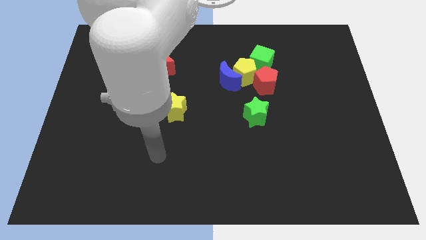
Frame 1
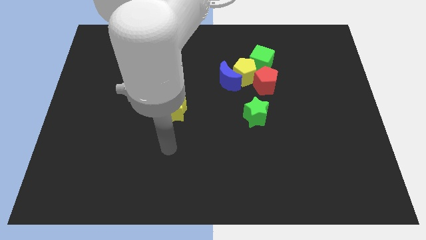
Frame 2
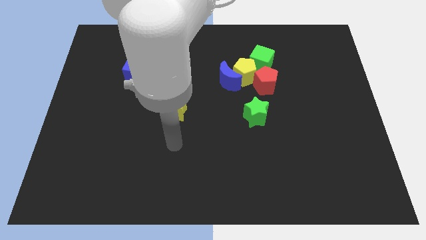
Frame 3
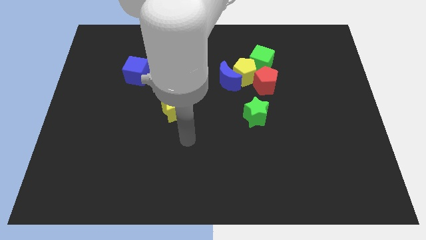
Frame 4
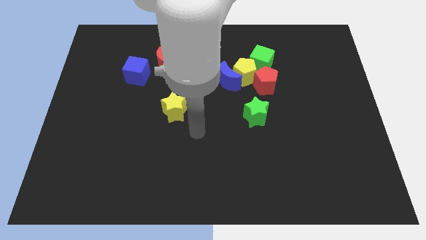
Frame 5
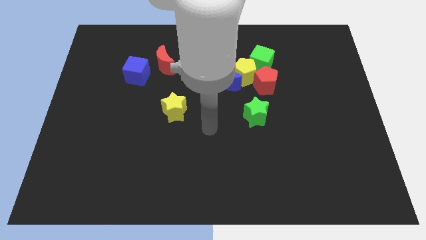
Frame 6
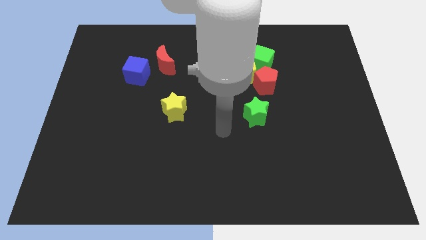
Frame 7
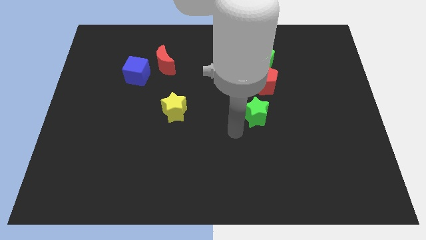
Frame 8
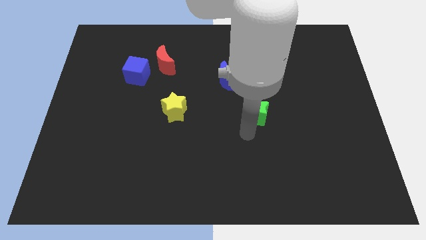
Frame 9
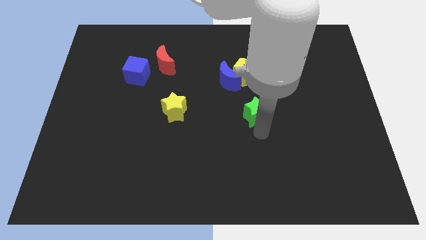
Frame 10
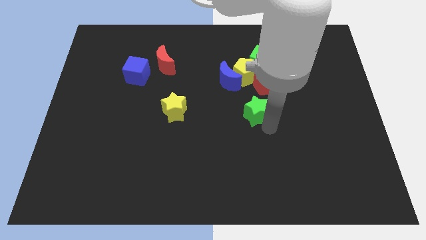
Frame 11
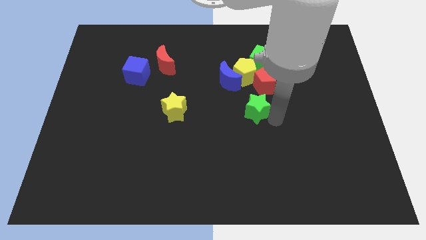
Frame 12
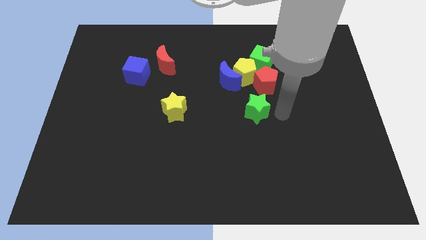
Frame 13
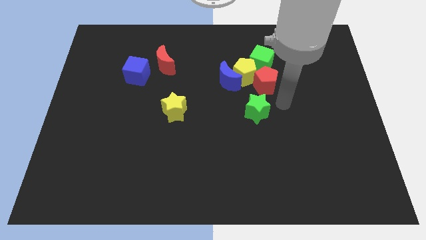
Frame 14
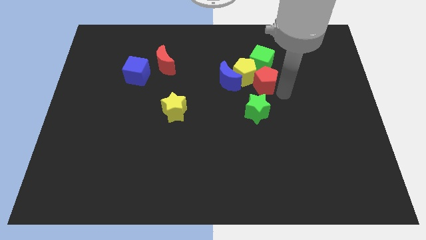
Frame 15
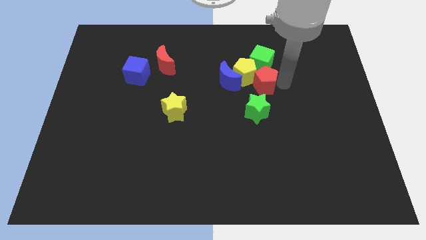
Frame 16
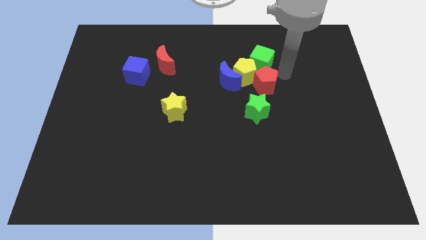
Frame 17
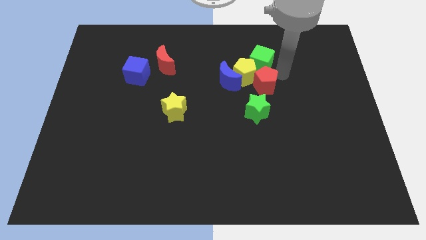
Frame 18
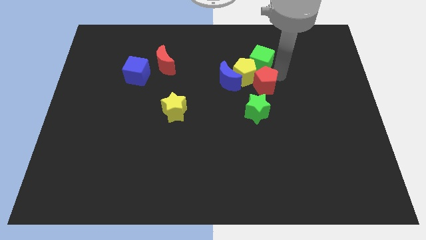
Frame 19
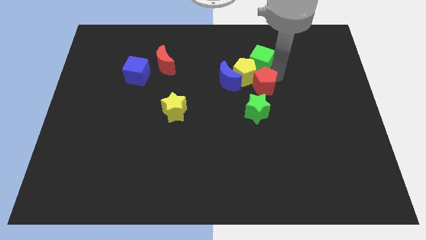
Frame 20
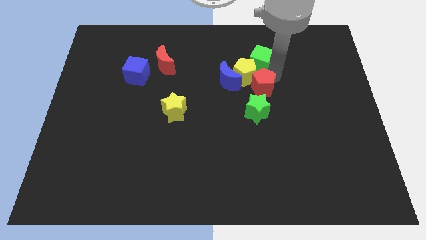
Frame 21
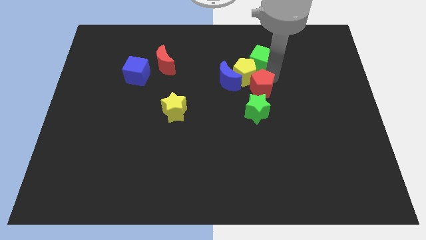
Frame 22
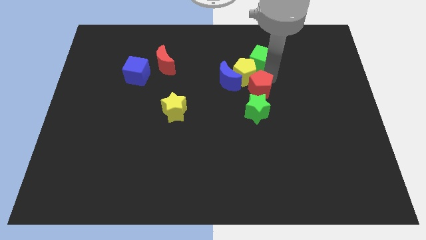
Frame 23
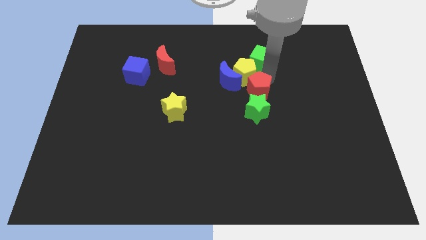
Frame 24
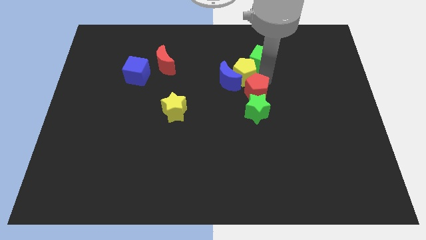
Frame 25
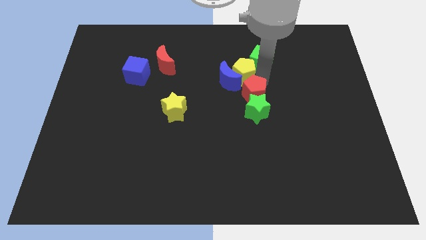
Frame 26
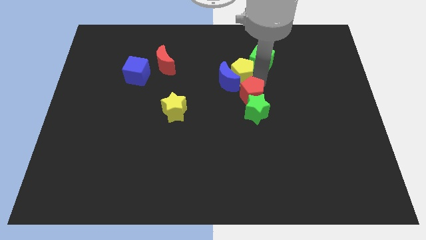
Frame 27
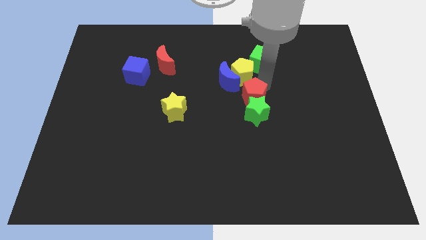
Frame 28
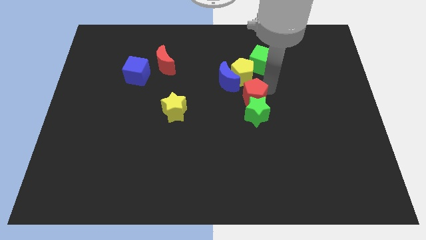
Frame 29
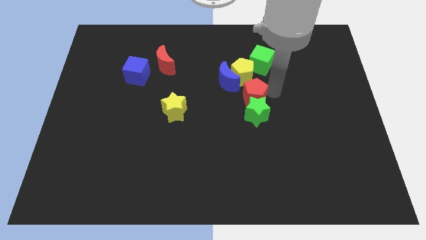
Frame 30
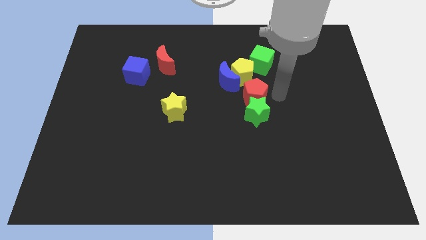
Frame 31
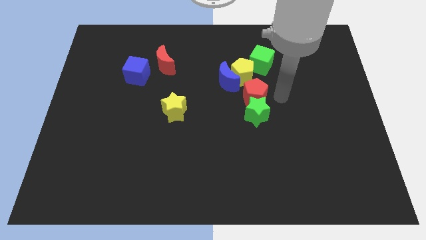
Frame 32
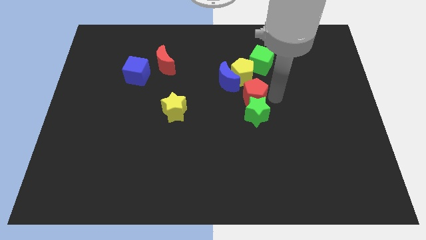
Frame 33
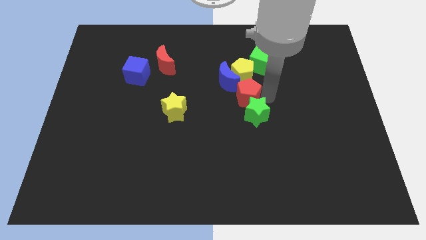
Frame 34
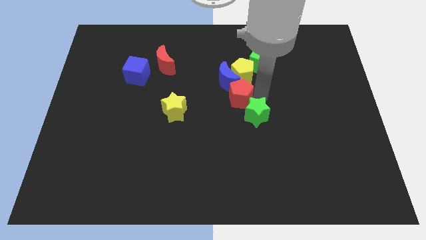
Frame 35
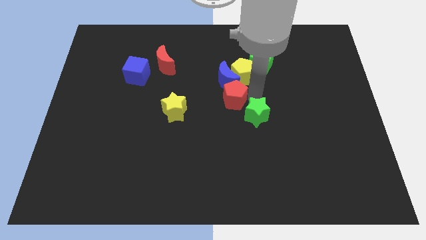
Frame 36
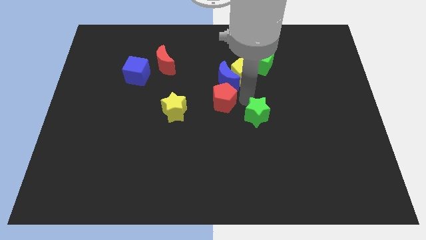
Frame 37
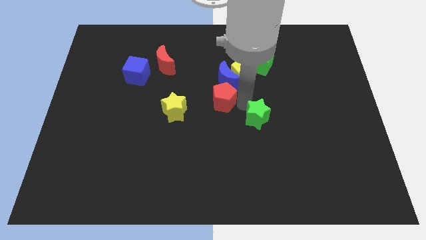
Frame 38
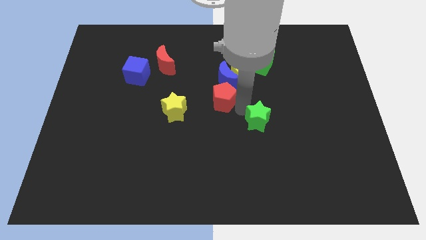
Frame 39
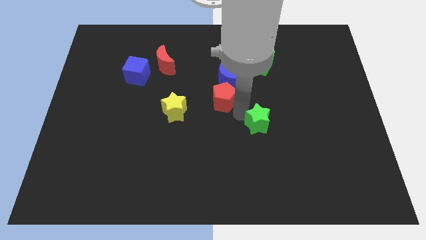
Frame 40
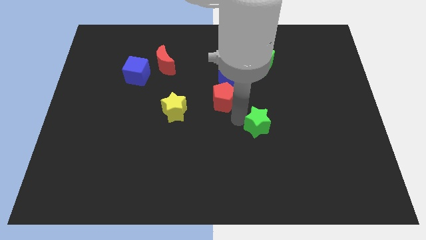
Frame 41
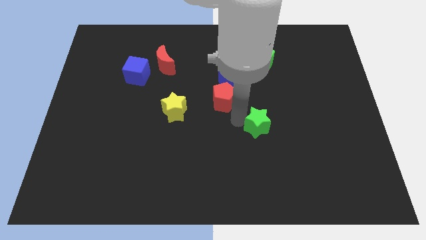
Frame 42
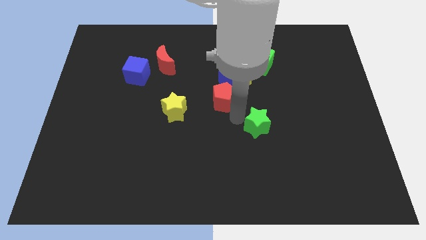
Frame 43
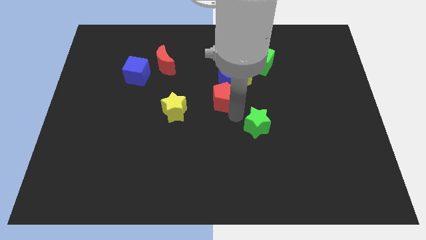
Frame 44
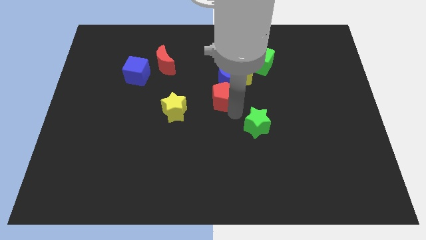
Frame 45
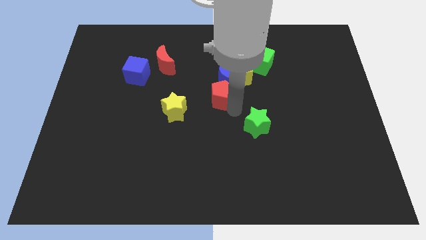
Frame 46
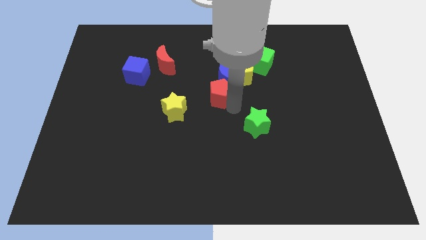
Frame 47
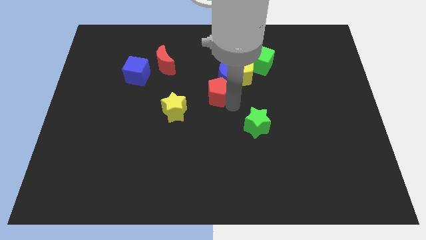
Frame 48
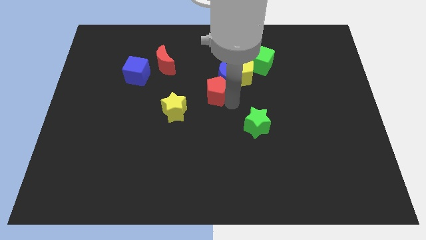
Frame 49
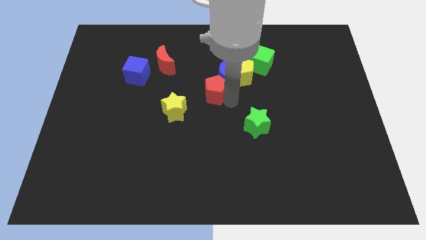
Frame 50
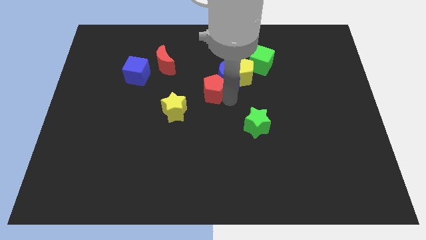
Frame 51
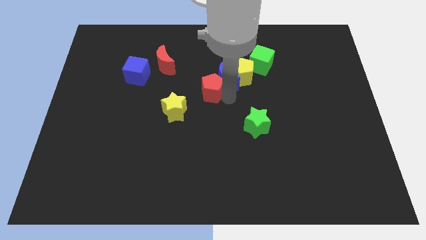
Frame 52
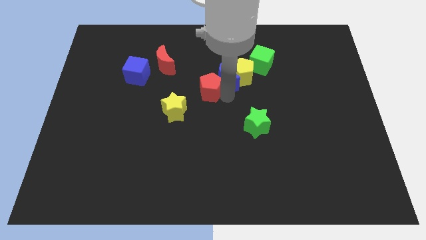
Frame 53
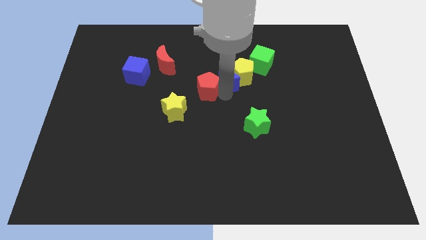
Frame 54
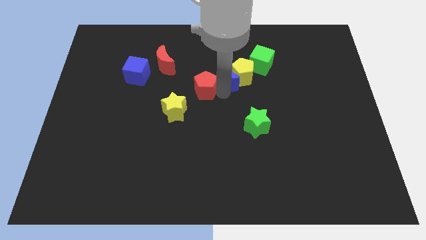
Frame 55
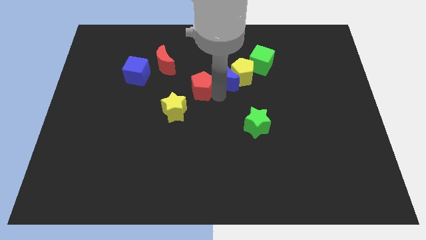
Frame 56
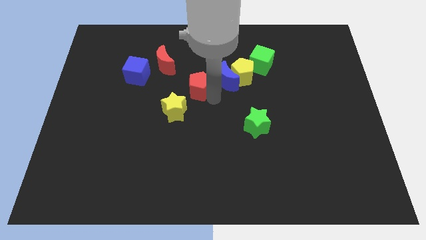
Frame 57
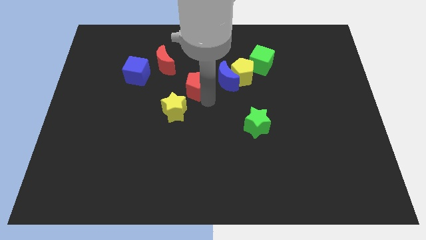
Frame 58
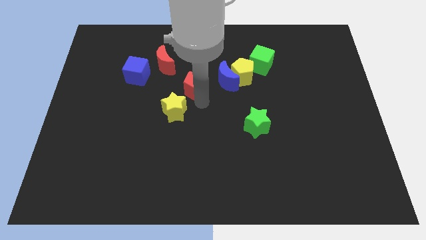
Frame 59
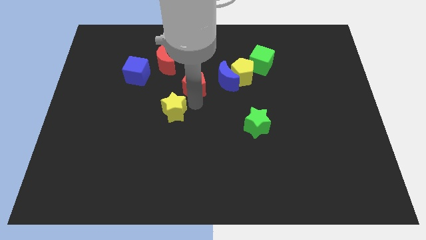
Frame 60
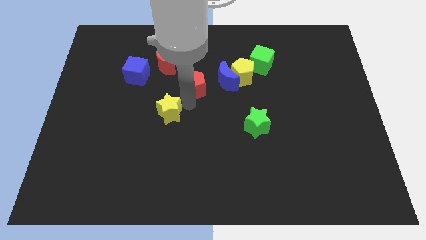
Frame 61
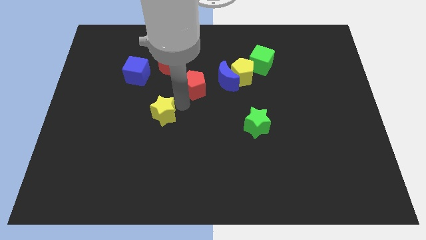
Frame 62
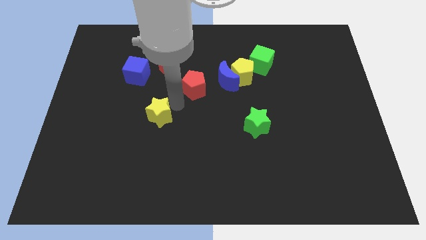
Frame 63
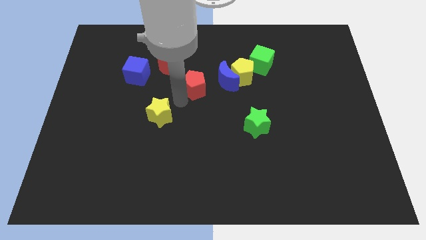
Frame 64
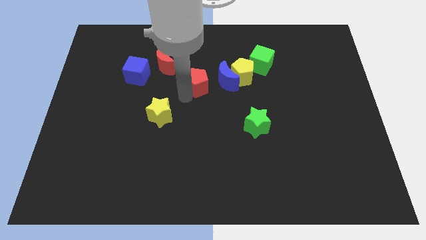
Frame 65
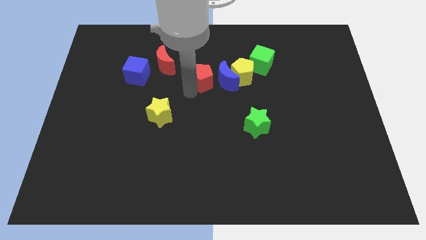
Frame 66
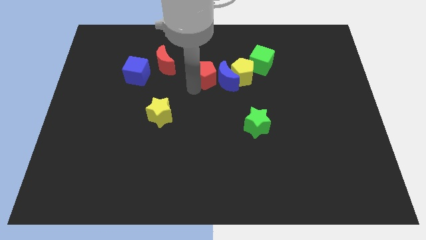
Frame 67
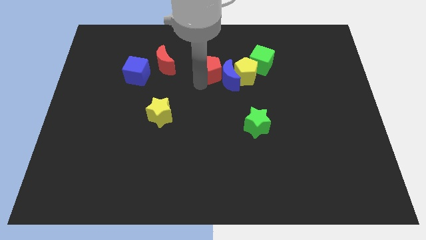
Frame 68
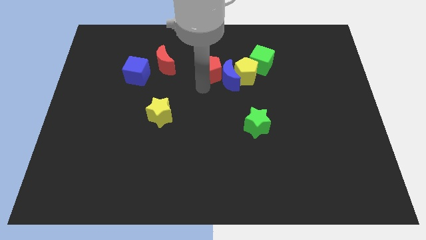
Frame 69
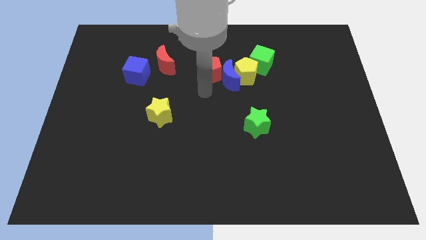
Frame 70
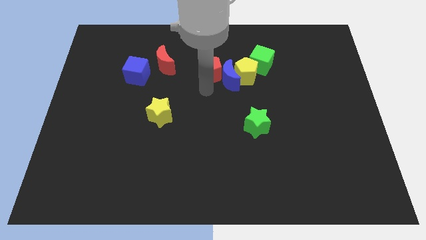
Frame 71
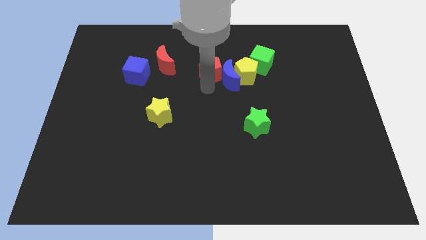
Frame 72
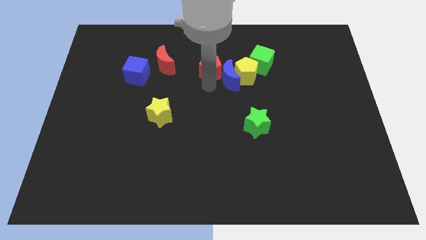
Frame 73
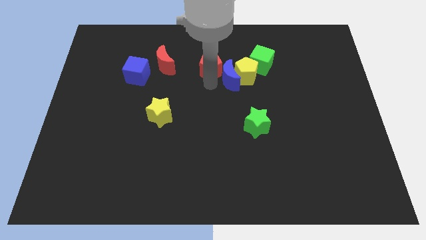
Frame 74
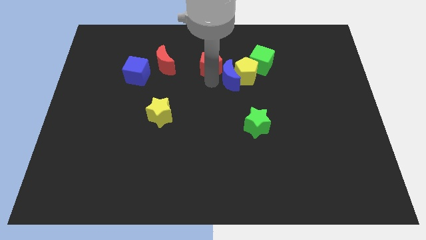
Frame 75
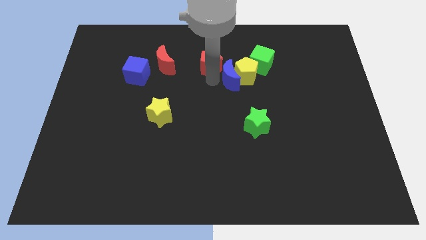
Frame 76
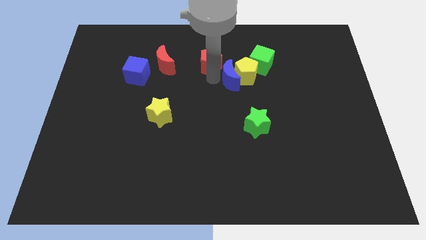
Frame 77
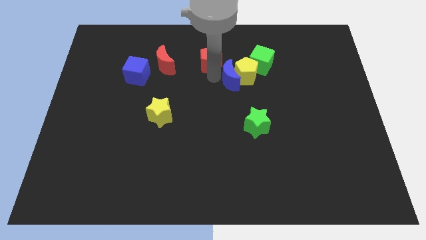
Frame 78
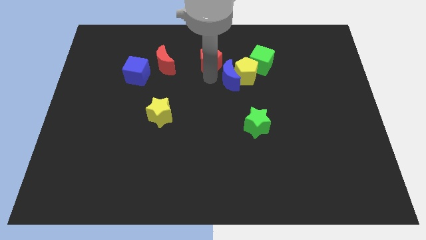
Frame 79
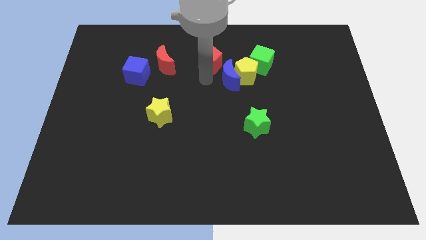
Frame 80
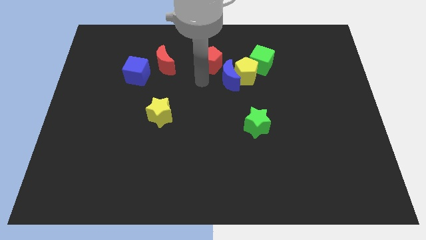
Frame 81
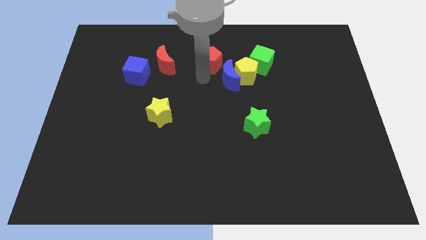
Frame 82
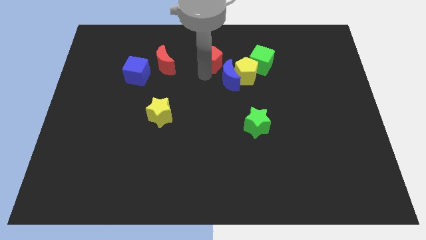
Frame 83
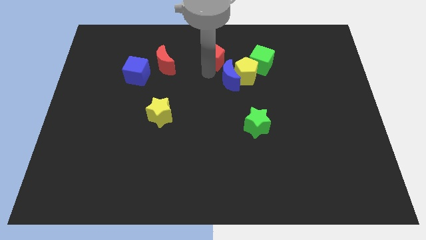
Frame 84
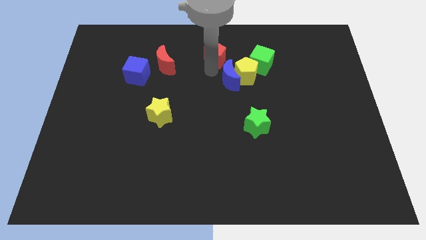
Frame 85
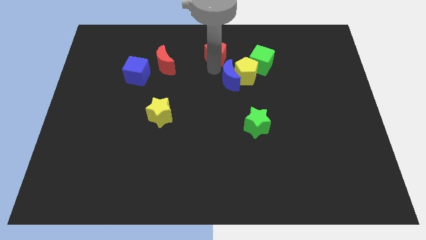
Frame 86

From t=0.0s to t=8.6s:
push the red pentagon to the top
